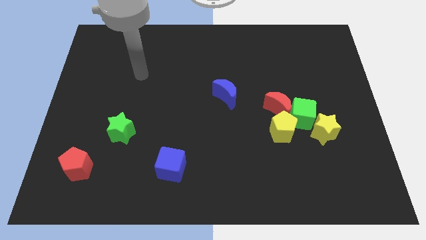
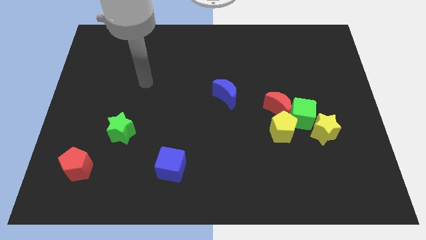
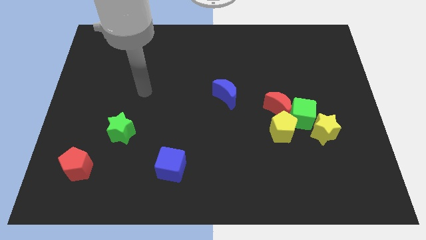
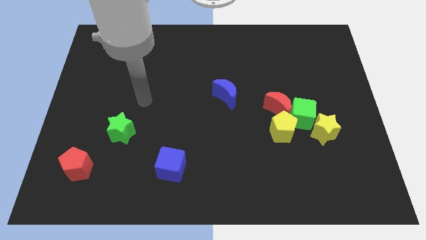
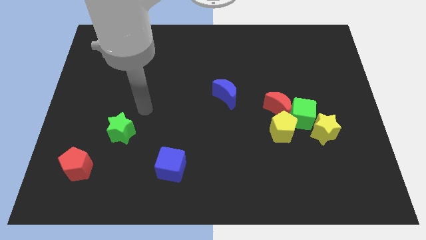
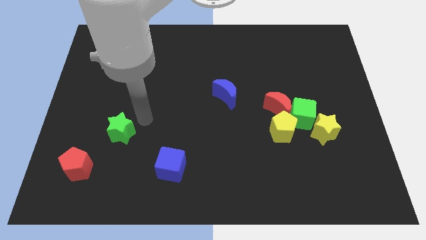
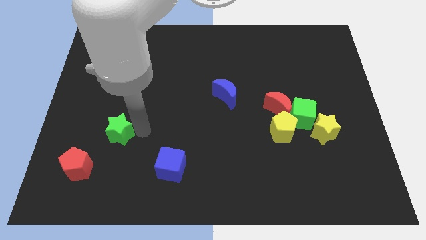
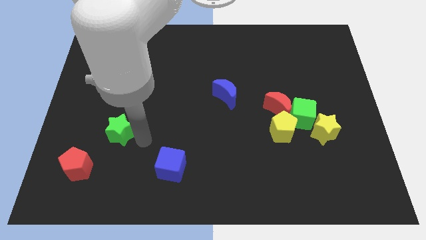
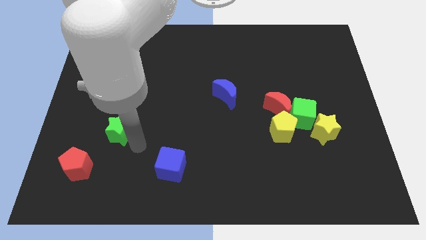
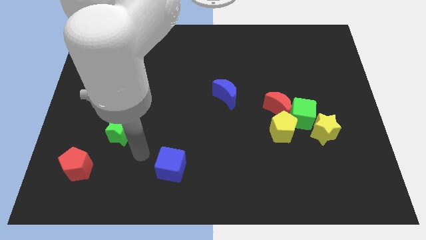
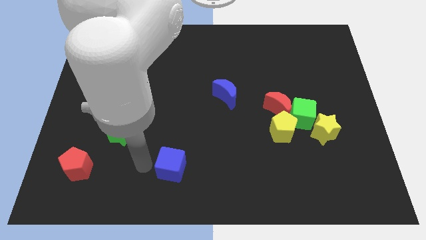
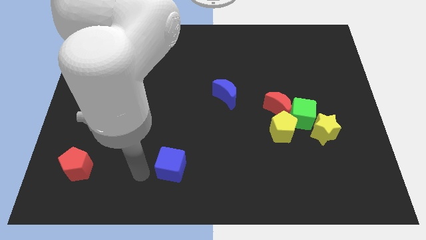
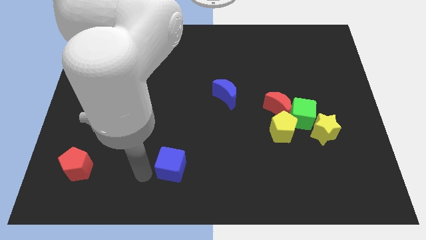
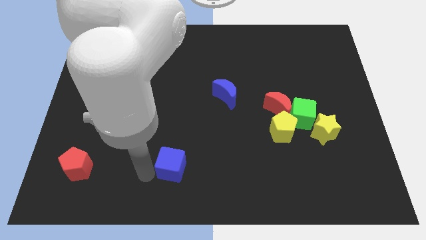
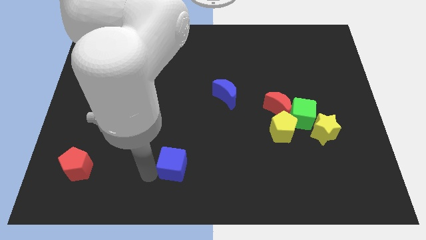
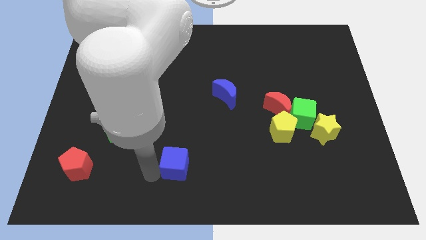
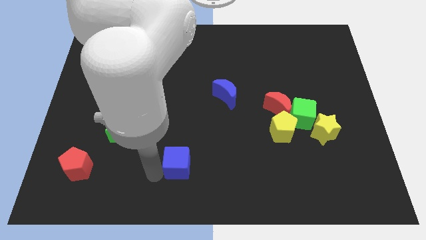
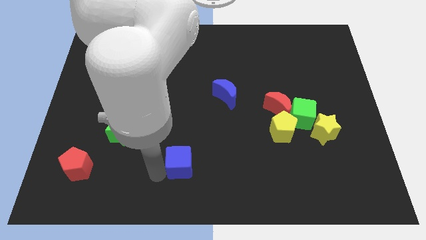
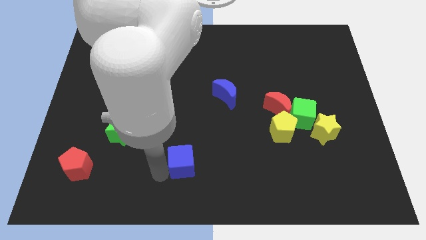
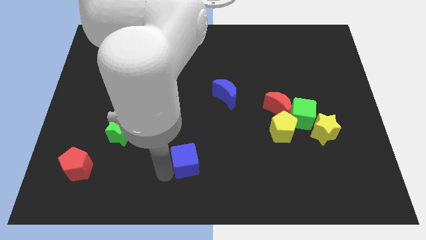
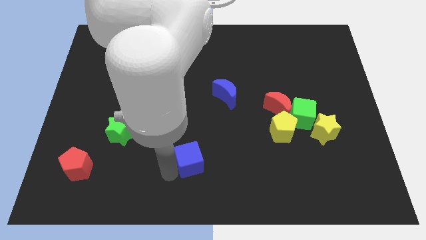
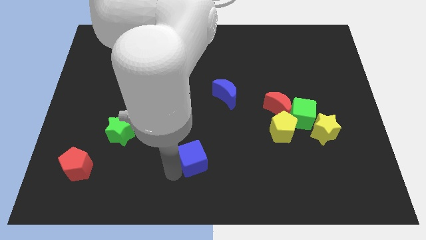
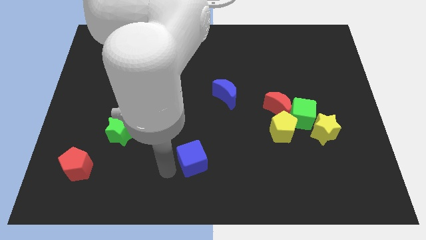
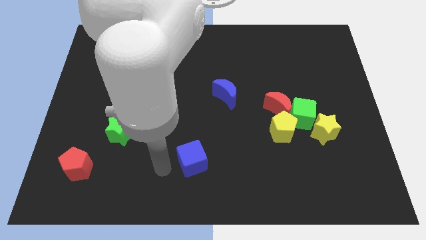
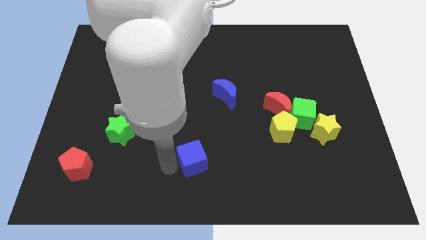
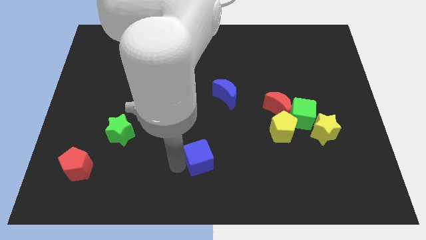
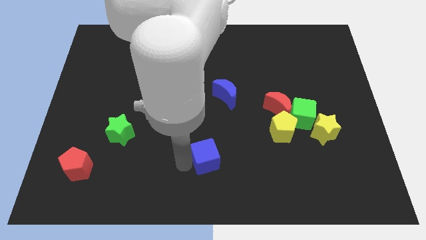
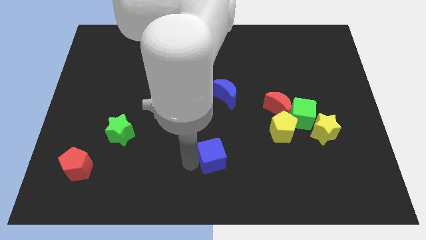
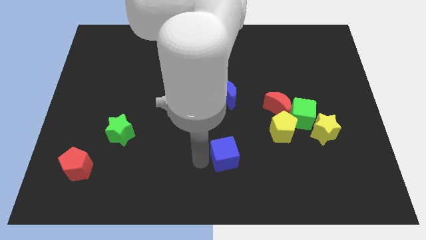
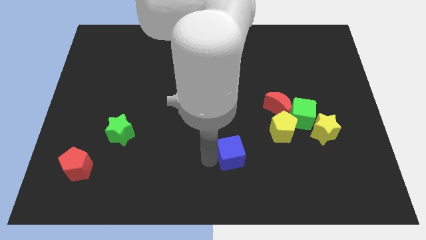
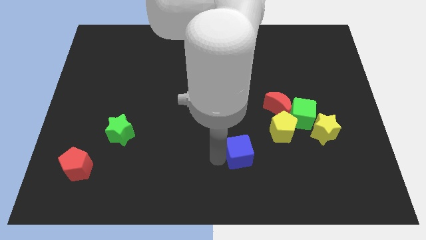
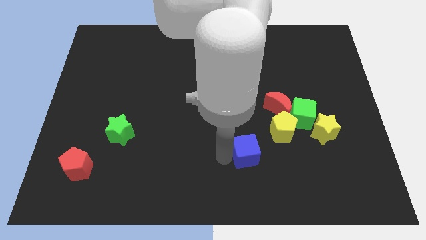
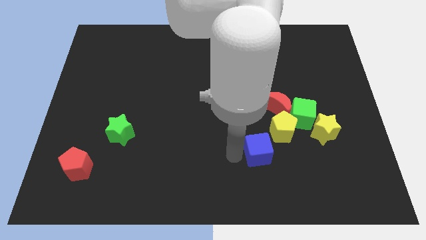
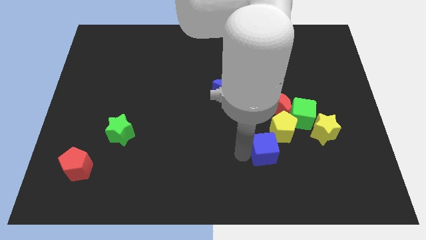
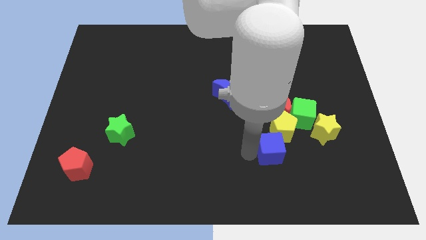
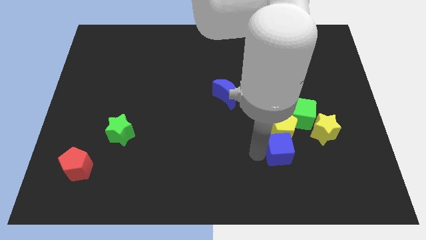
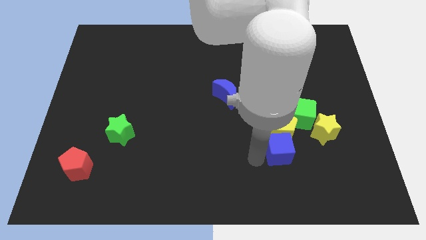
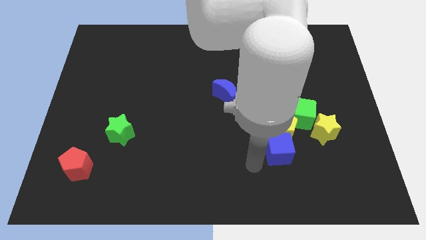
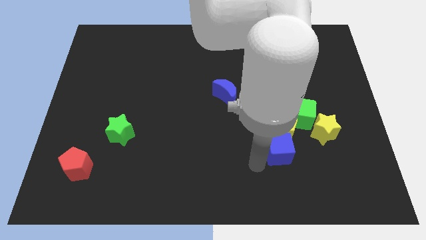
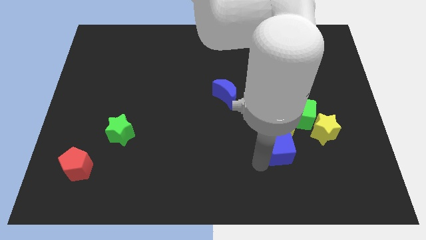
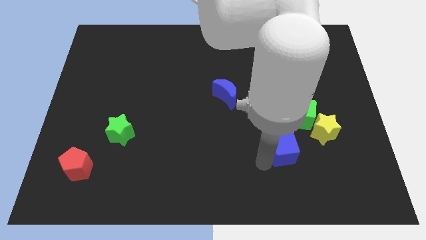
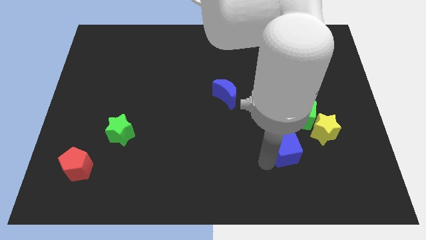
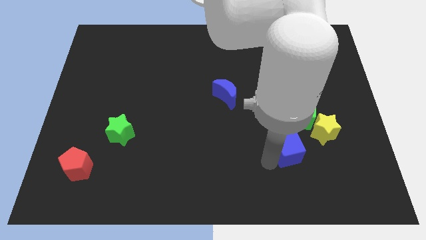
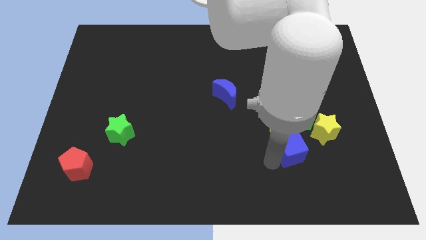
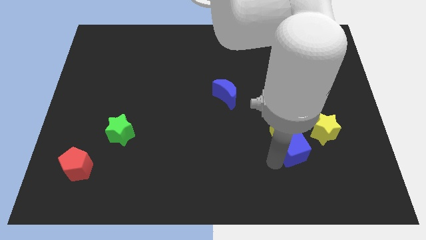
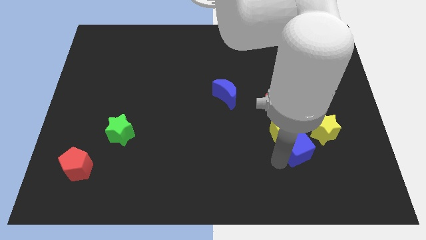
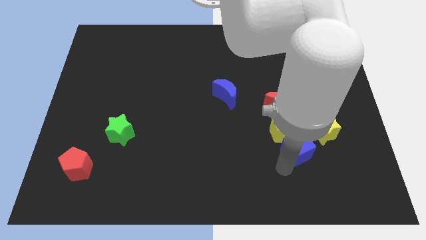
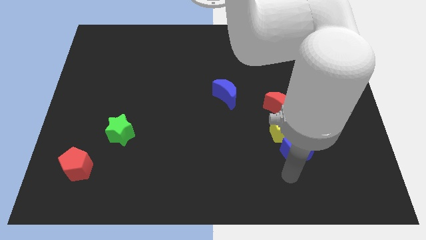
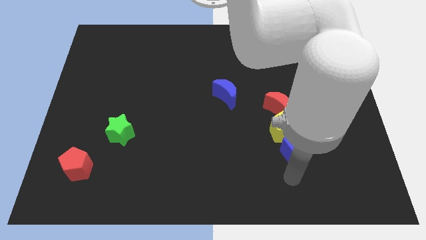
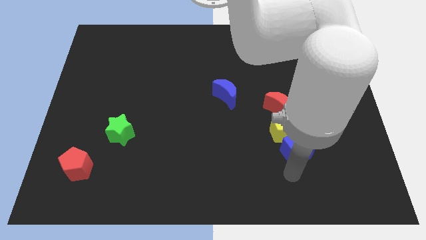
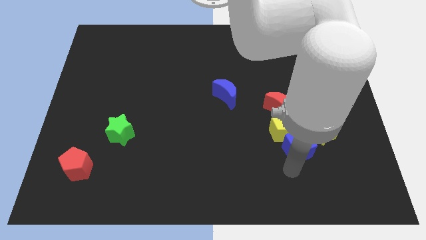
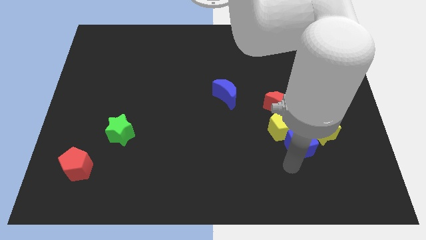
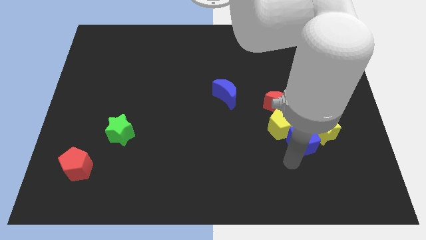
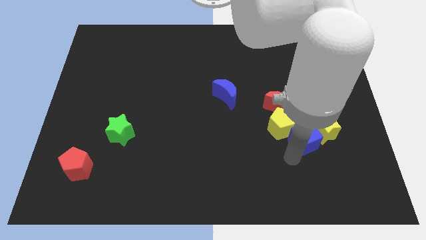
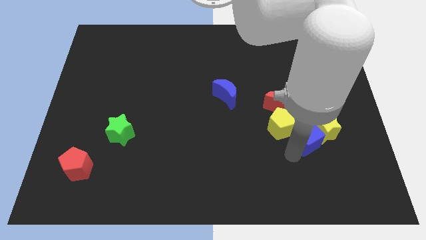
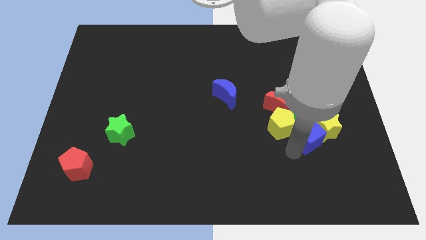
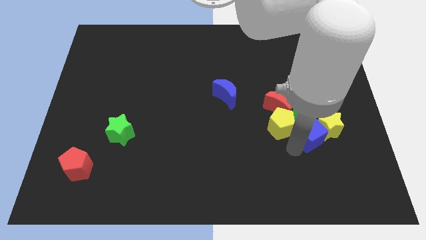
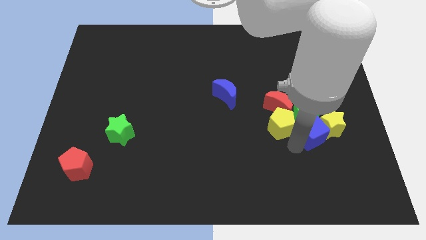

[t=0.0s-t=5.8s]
push the blue cube close to the green cube

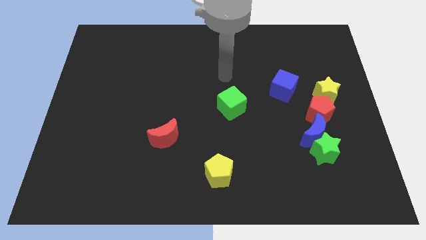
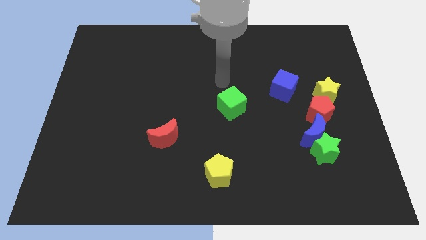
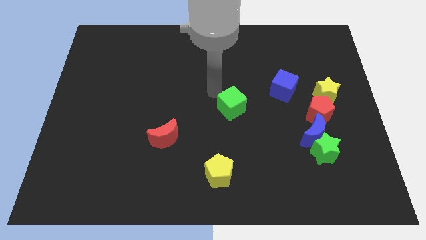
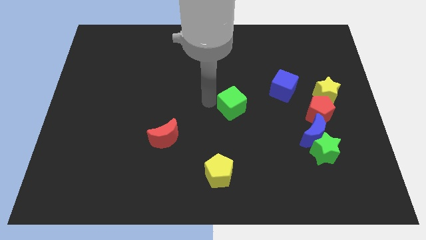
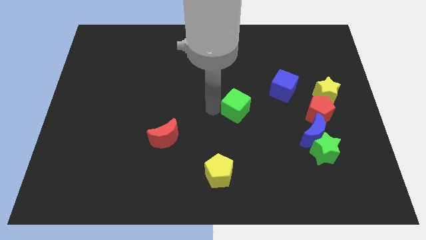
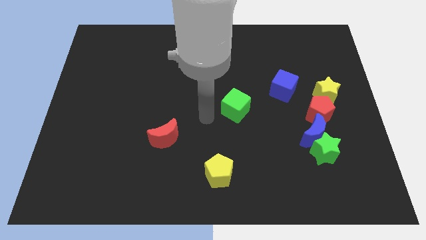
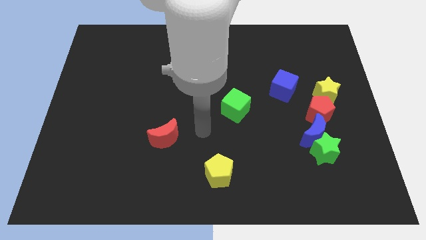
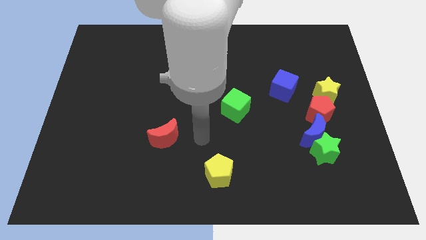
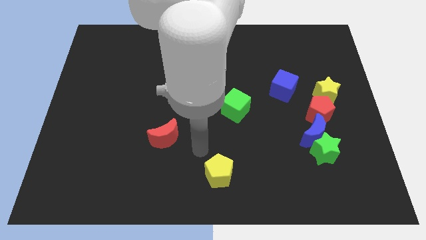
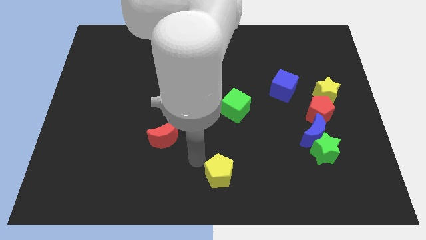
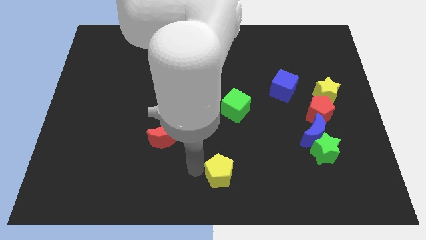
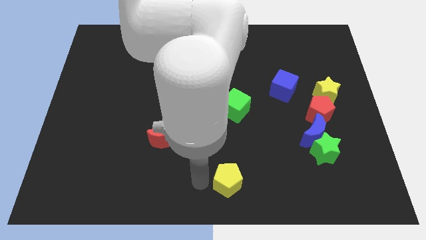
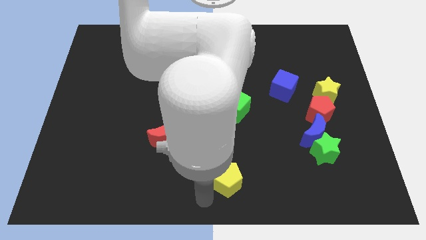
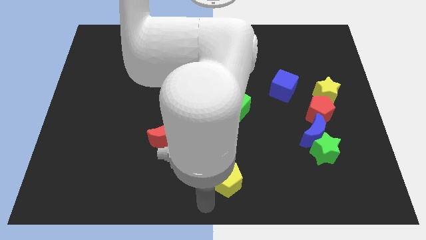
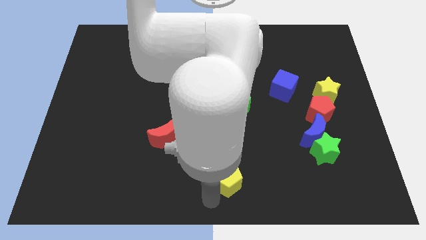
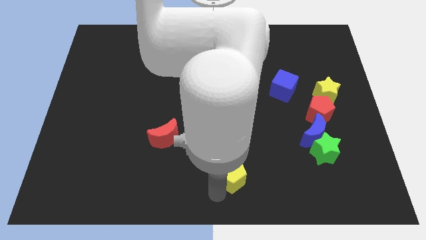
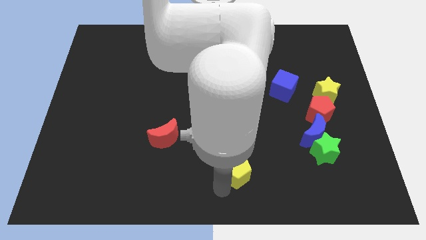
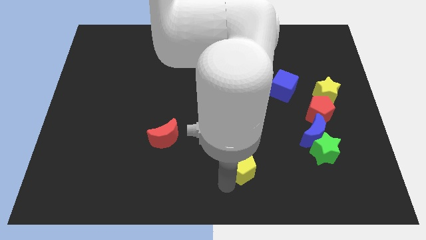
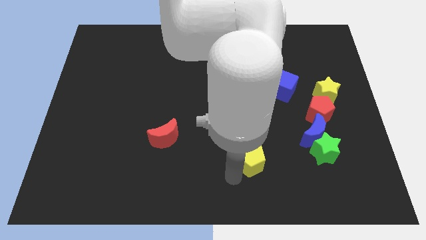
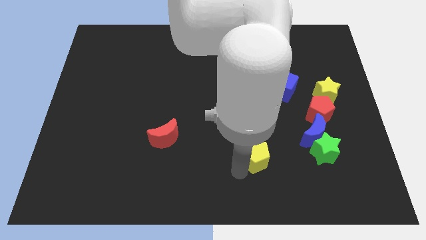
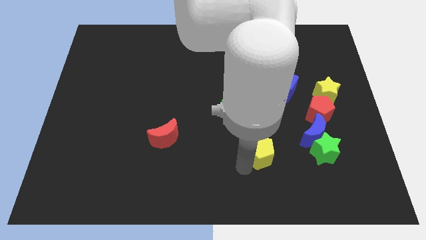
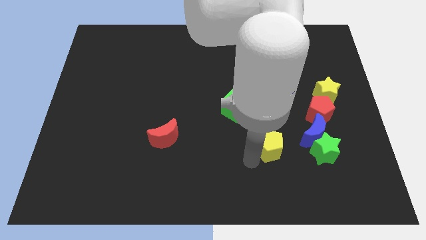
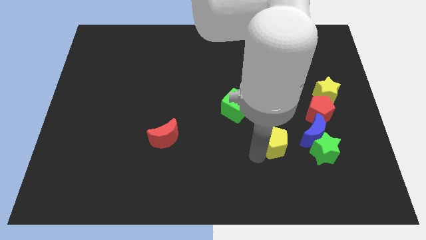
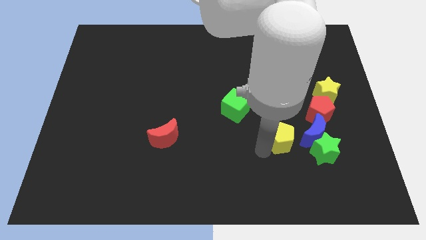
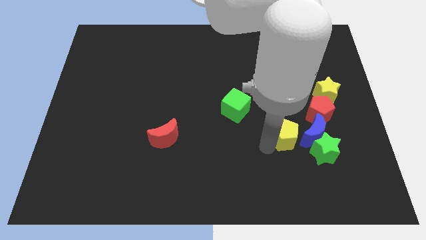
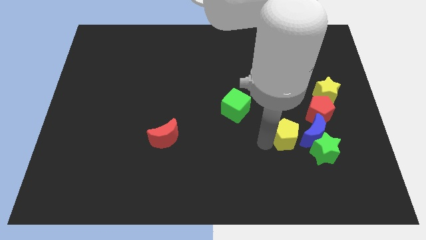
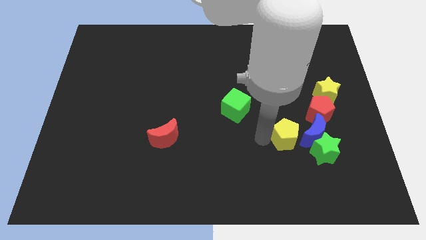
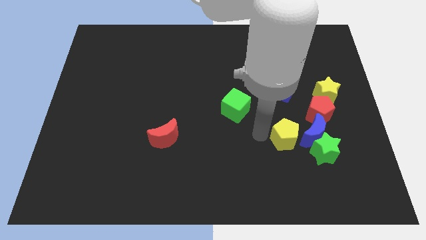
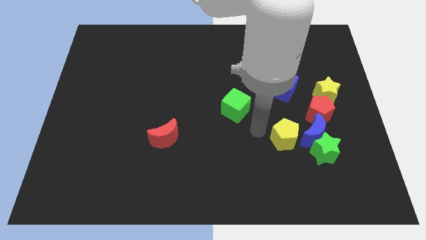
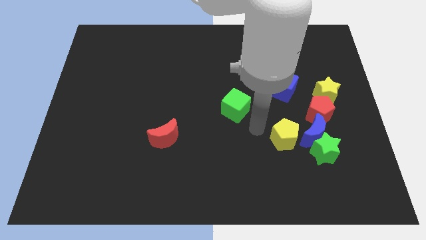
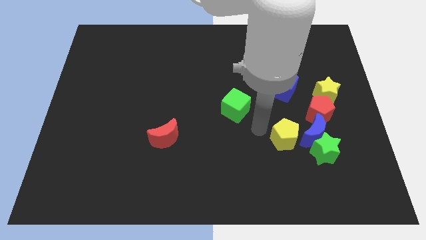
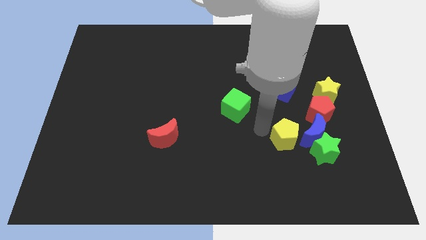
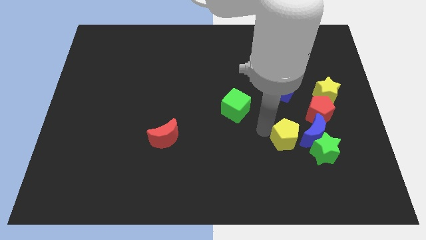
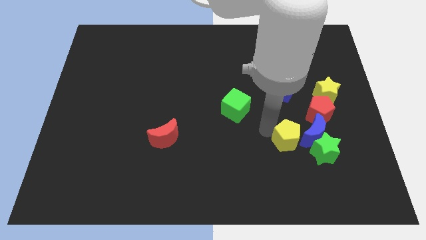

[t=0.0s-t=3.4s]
slide the yellow pentagon to the blue moon
